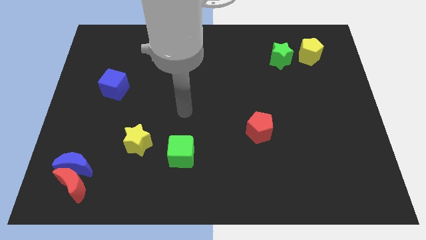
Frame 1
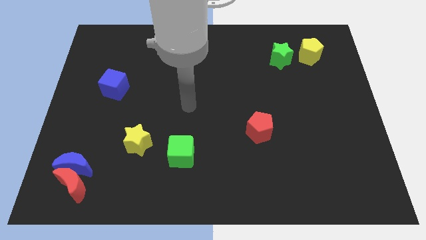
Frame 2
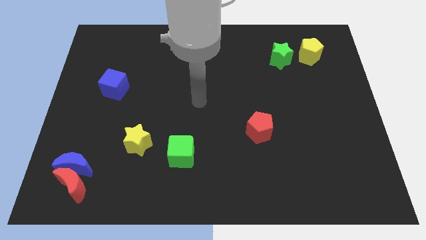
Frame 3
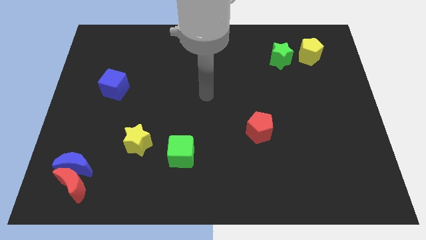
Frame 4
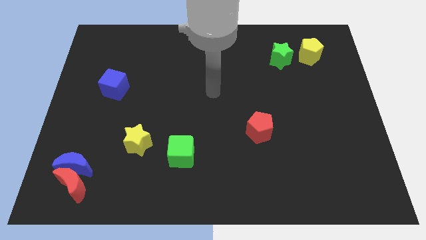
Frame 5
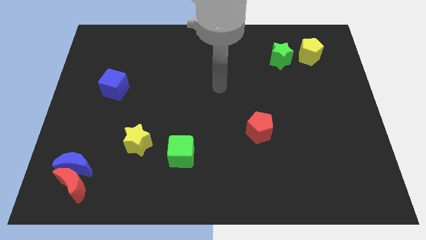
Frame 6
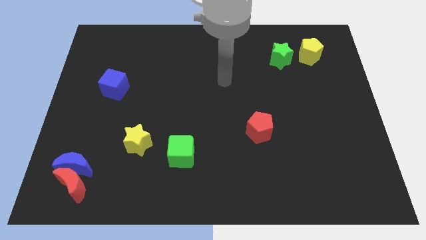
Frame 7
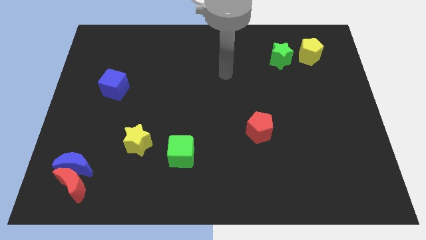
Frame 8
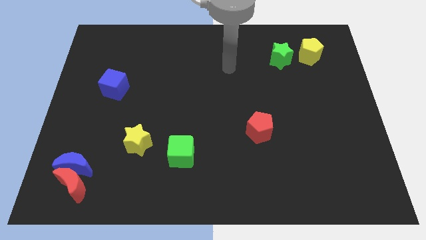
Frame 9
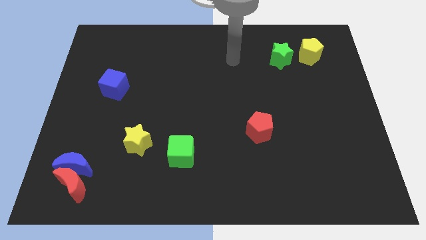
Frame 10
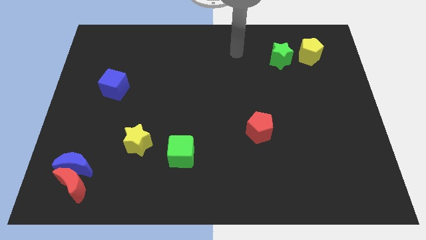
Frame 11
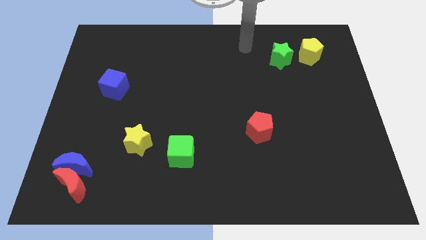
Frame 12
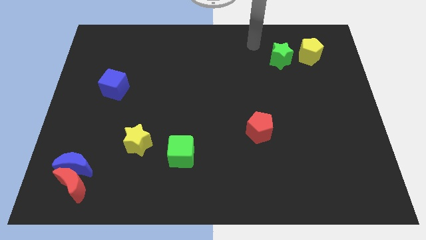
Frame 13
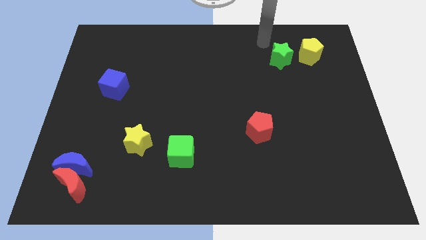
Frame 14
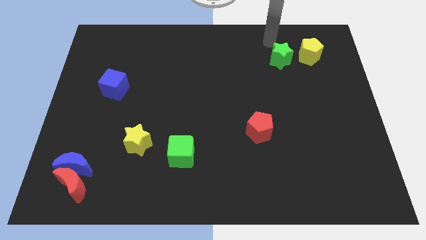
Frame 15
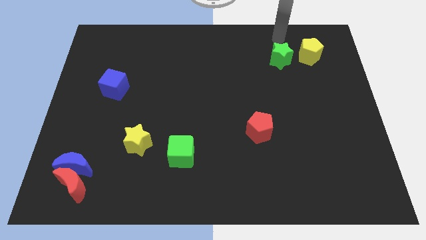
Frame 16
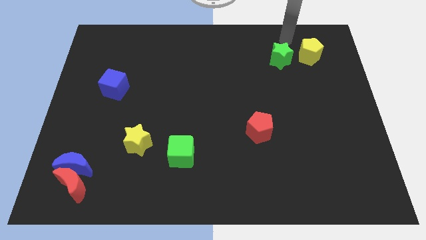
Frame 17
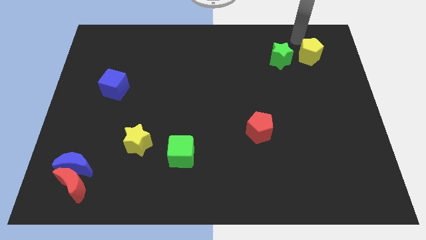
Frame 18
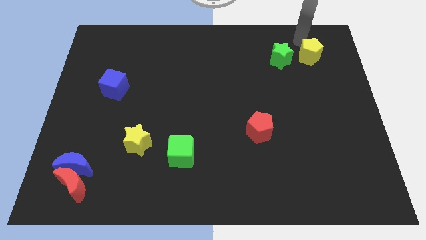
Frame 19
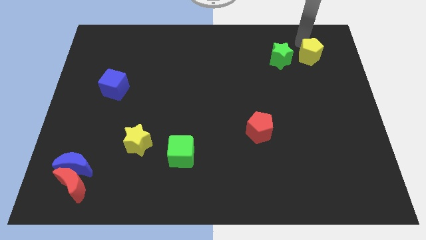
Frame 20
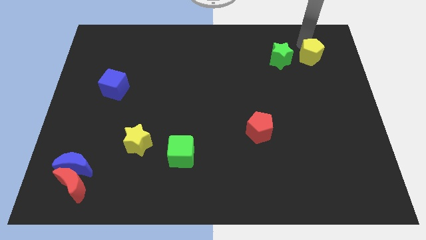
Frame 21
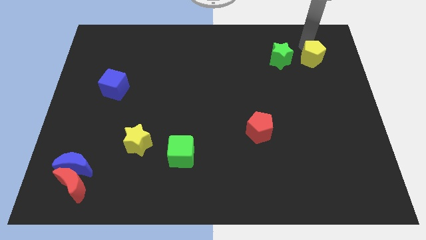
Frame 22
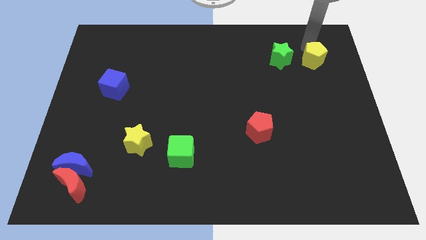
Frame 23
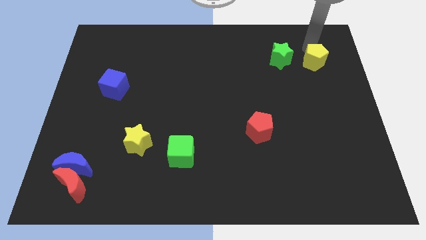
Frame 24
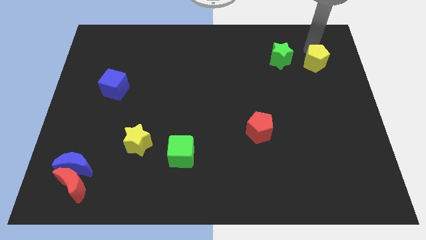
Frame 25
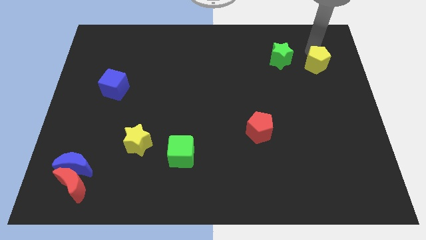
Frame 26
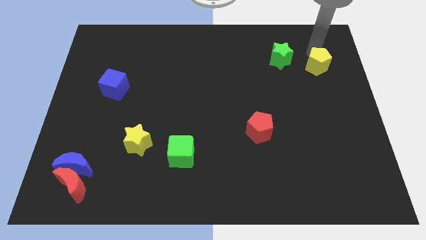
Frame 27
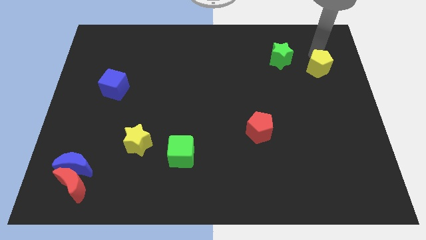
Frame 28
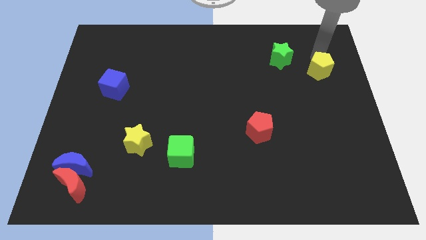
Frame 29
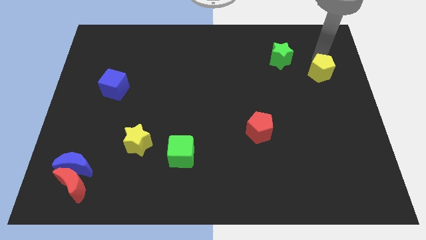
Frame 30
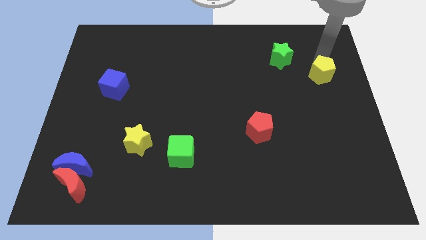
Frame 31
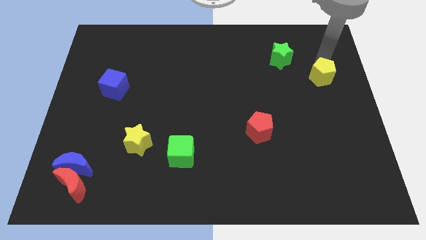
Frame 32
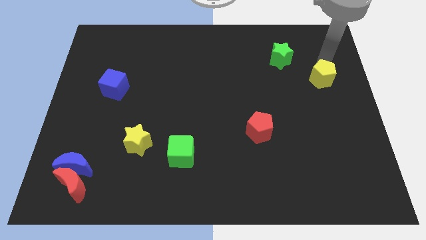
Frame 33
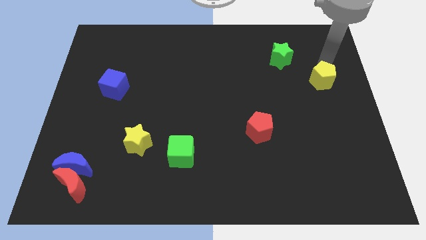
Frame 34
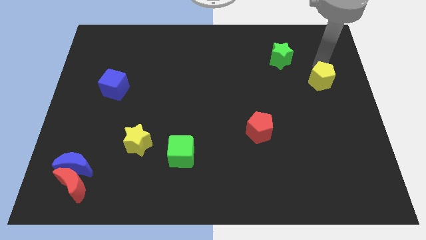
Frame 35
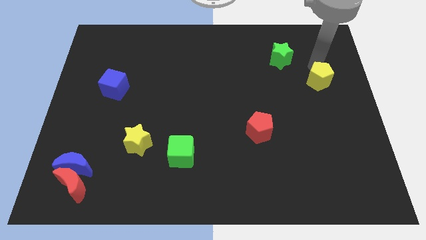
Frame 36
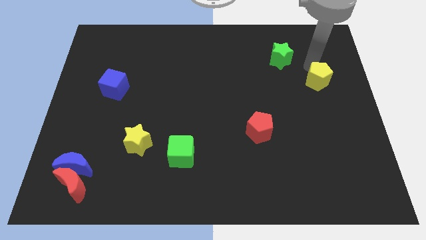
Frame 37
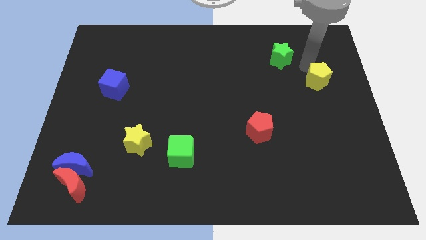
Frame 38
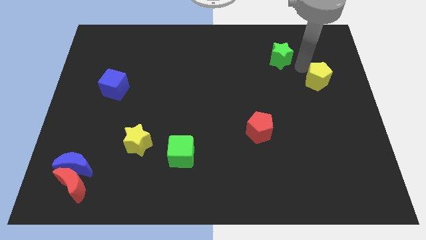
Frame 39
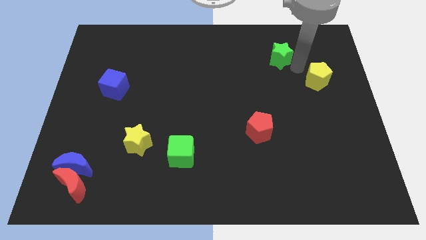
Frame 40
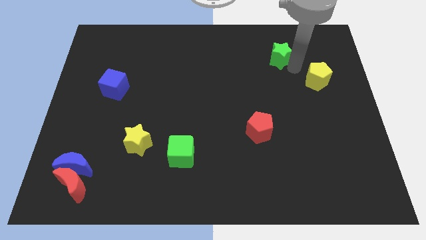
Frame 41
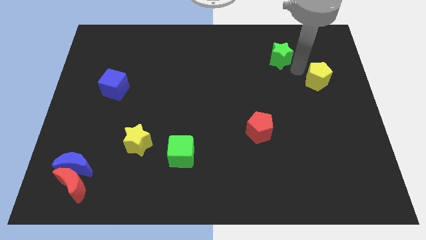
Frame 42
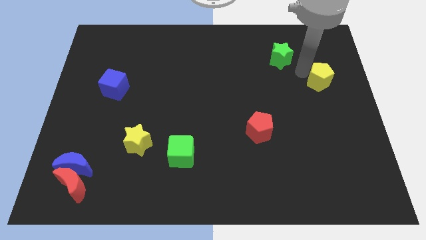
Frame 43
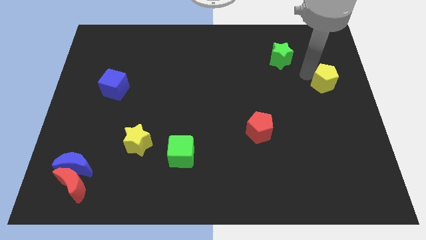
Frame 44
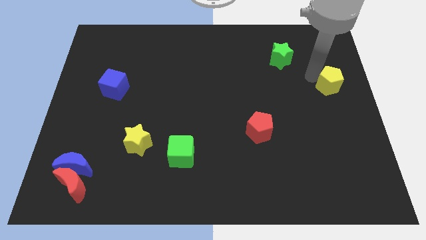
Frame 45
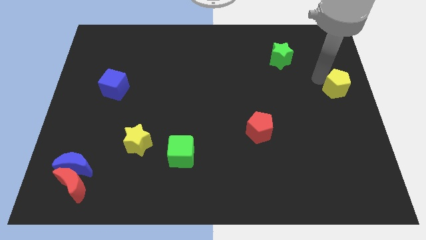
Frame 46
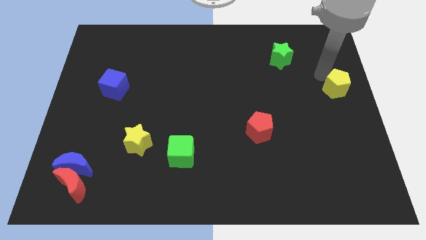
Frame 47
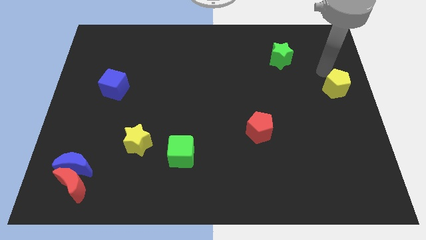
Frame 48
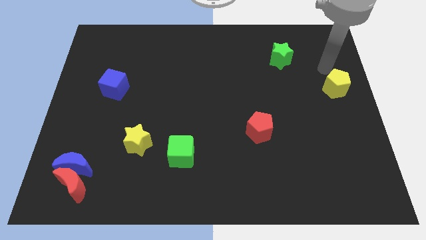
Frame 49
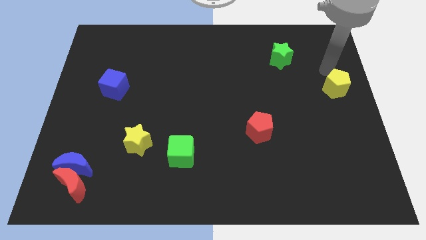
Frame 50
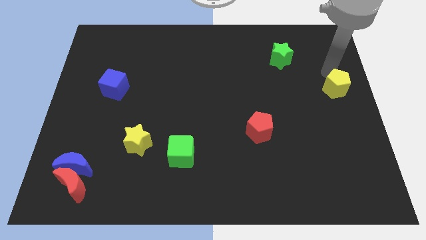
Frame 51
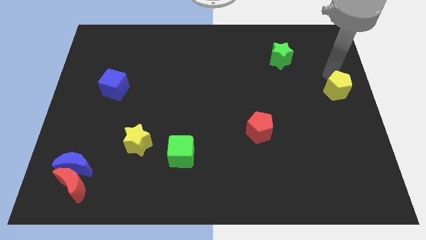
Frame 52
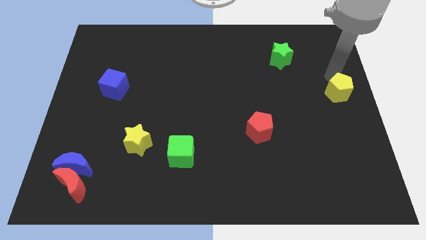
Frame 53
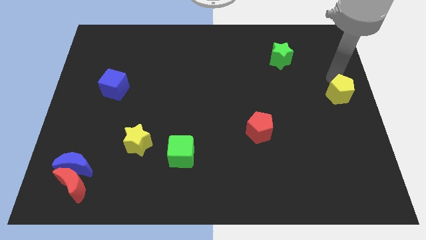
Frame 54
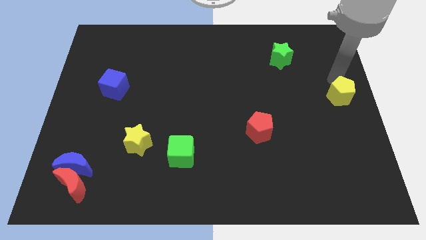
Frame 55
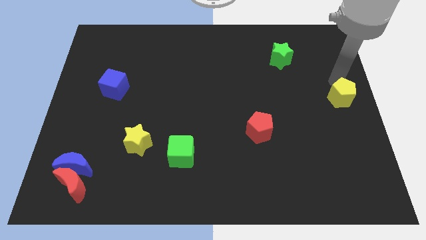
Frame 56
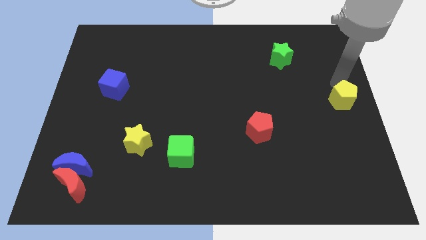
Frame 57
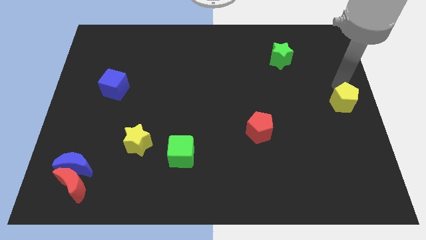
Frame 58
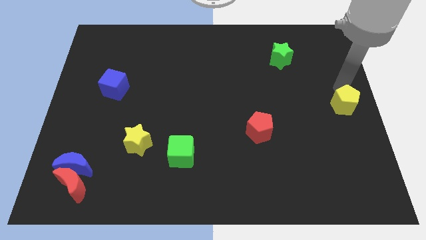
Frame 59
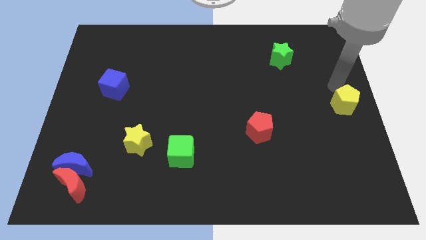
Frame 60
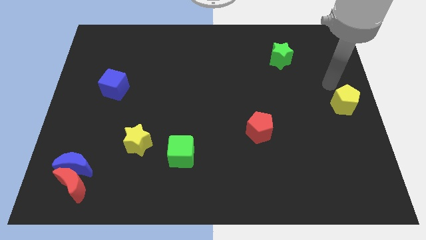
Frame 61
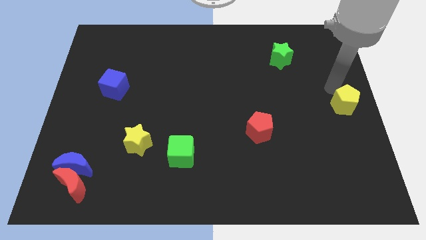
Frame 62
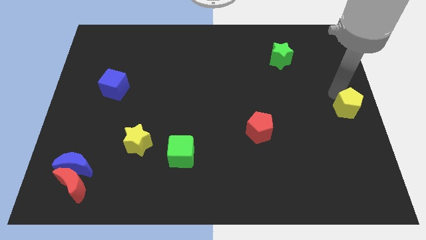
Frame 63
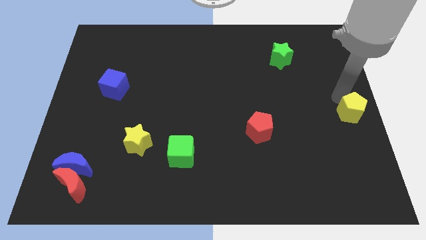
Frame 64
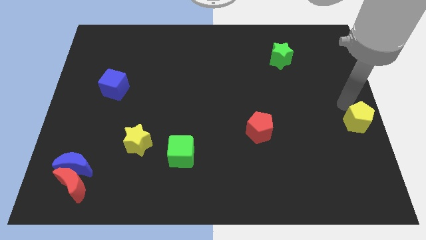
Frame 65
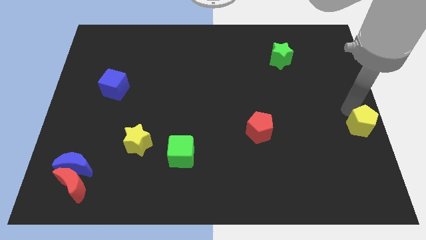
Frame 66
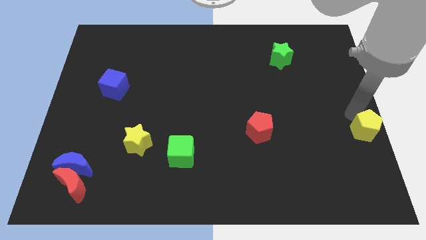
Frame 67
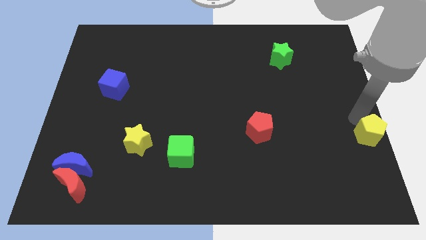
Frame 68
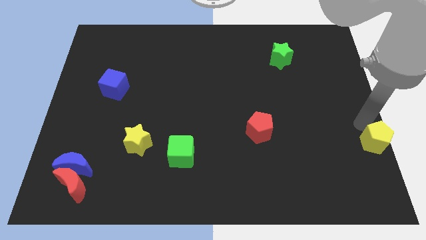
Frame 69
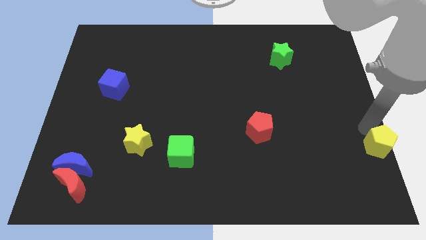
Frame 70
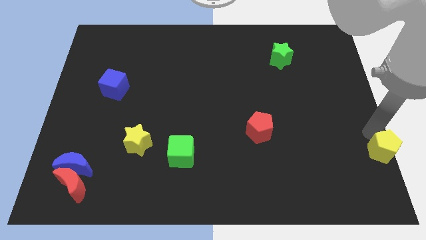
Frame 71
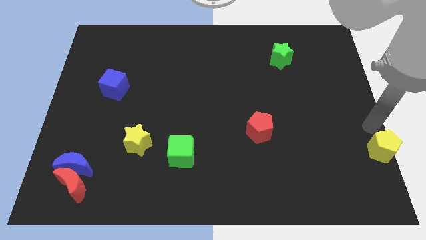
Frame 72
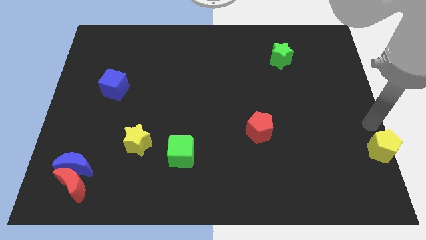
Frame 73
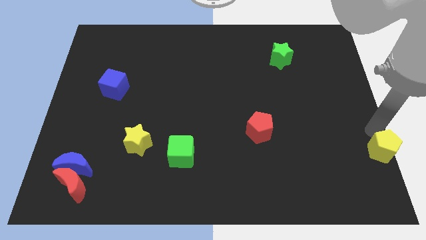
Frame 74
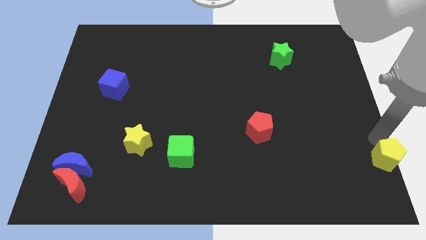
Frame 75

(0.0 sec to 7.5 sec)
move the yellow pentagon to the bottom right
